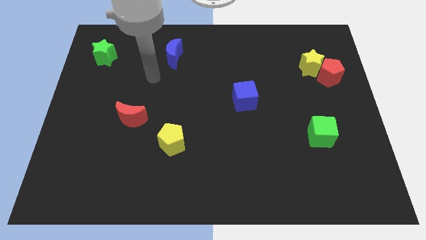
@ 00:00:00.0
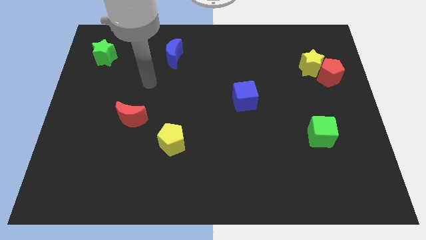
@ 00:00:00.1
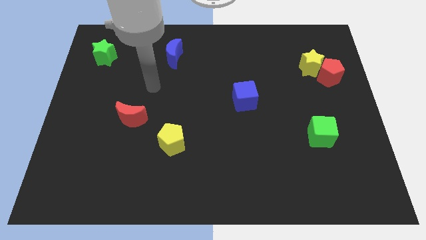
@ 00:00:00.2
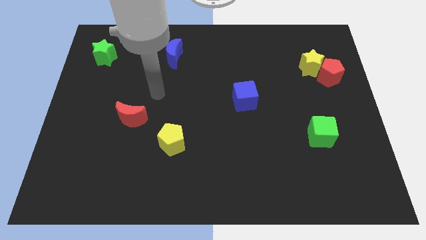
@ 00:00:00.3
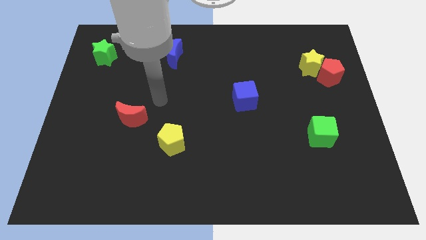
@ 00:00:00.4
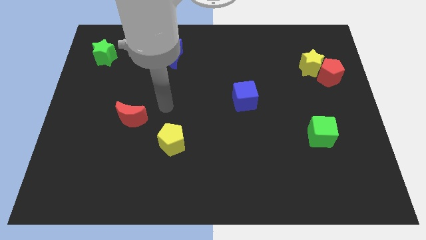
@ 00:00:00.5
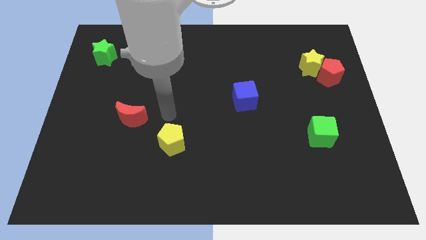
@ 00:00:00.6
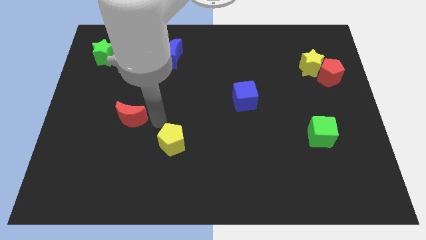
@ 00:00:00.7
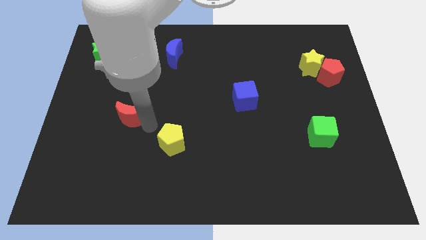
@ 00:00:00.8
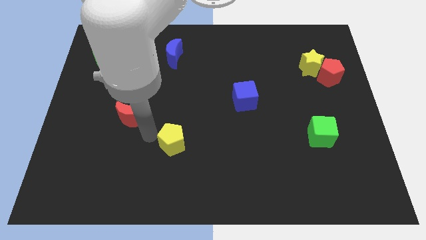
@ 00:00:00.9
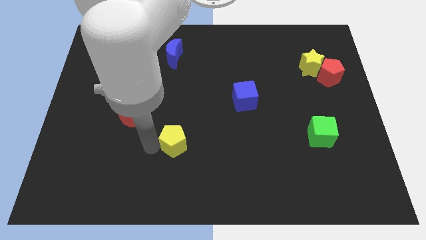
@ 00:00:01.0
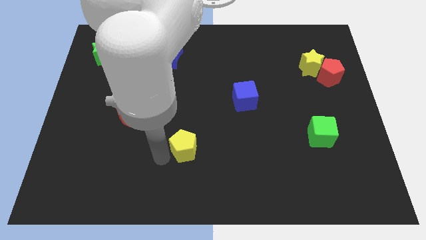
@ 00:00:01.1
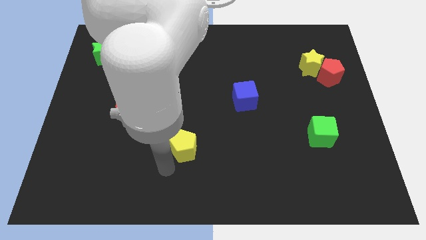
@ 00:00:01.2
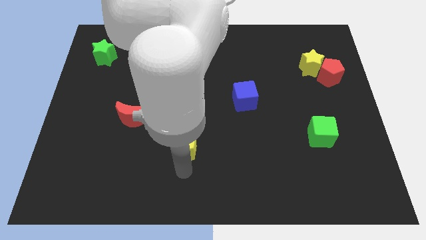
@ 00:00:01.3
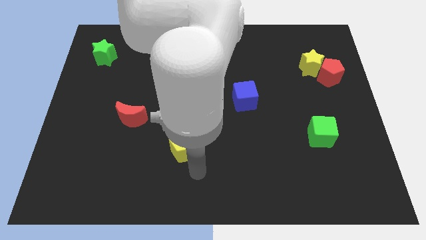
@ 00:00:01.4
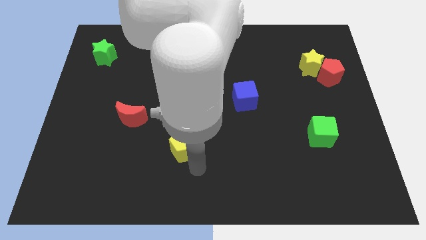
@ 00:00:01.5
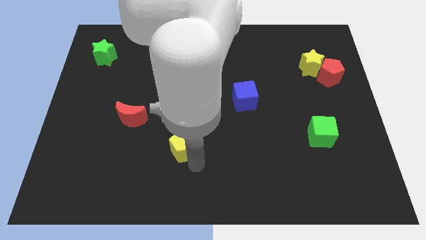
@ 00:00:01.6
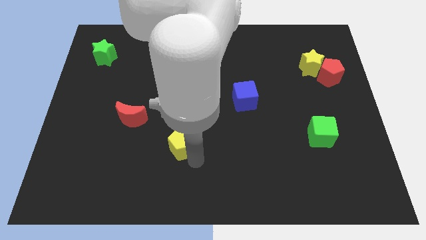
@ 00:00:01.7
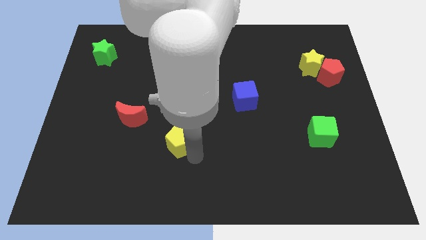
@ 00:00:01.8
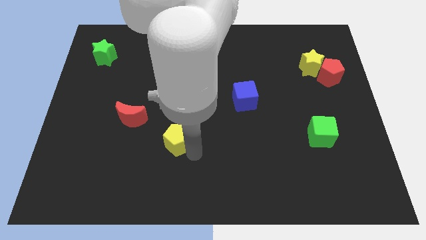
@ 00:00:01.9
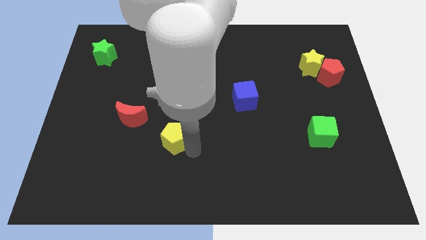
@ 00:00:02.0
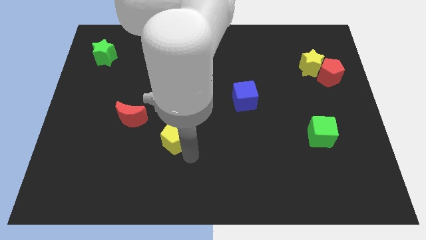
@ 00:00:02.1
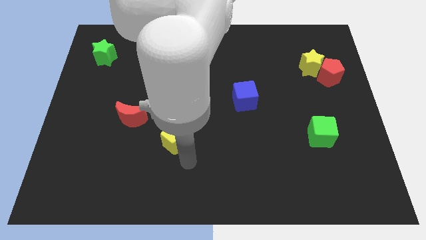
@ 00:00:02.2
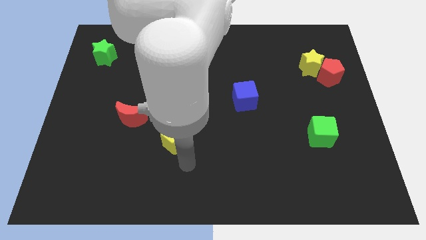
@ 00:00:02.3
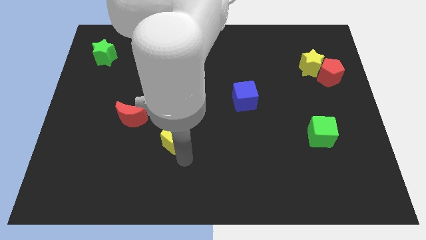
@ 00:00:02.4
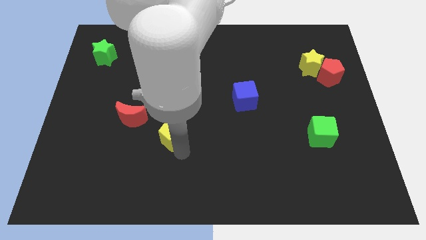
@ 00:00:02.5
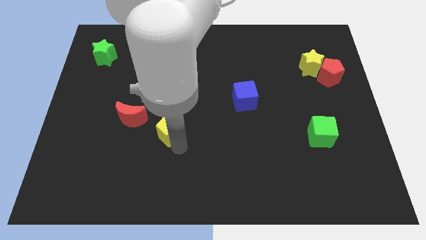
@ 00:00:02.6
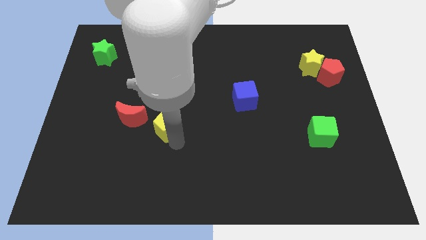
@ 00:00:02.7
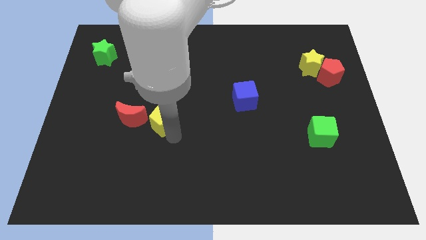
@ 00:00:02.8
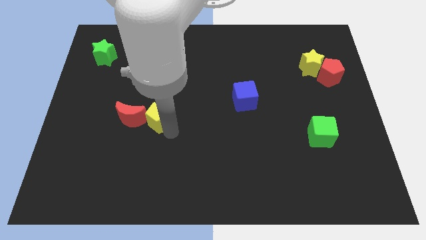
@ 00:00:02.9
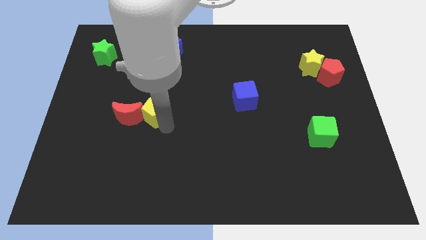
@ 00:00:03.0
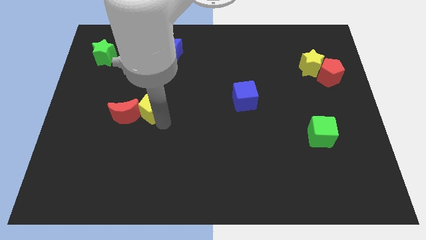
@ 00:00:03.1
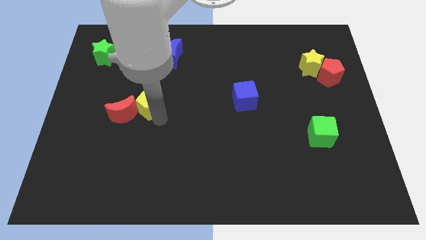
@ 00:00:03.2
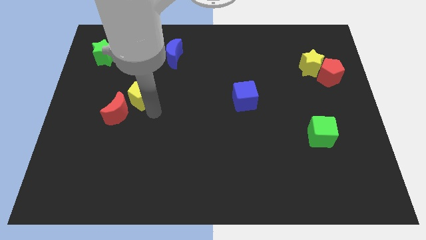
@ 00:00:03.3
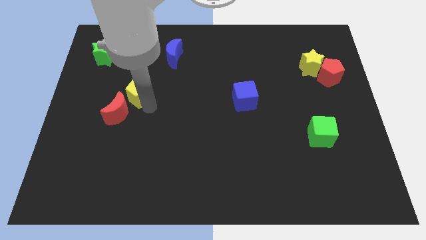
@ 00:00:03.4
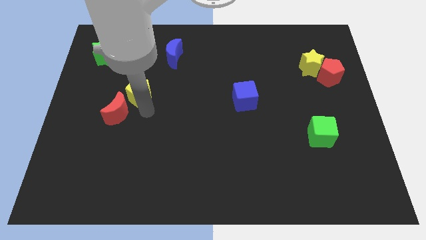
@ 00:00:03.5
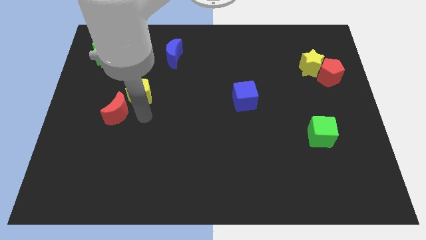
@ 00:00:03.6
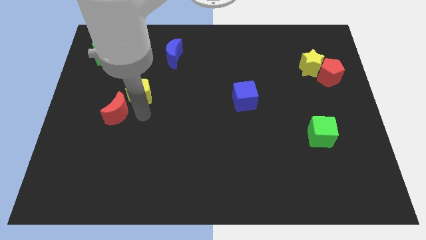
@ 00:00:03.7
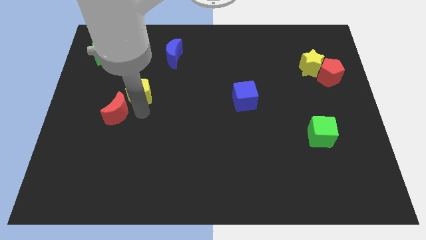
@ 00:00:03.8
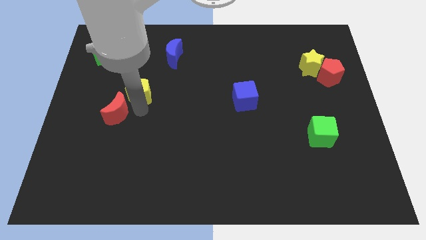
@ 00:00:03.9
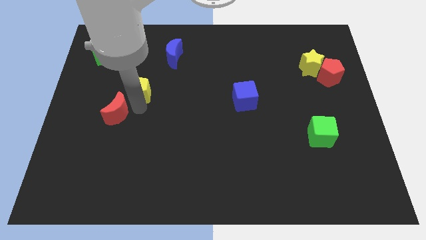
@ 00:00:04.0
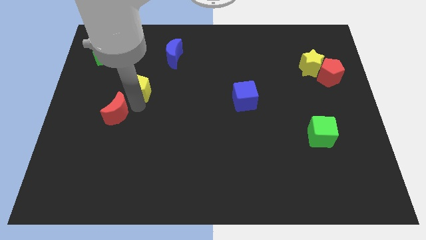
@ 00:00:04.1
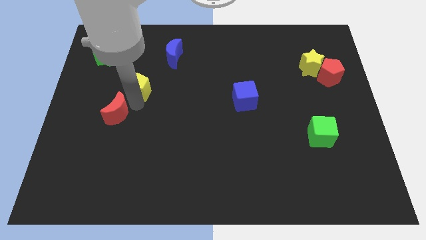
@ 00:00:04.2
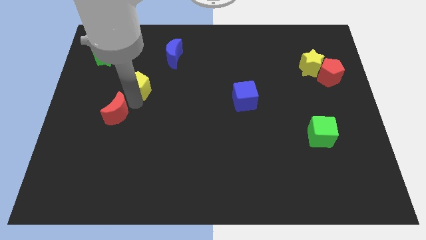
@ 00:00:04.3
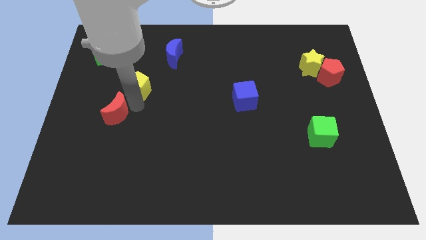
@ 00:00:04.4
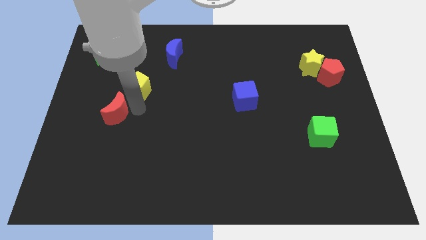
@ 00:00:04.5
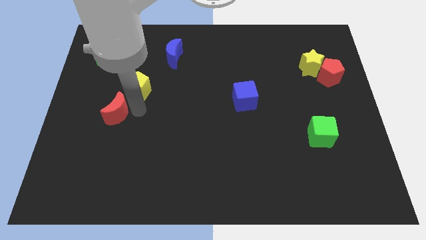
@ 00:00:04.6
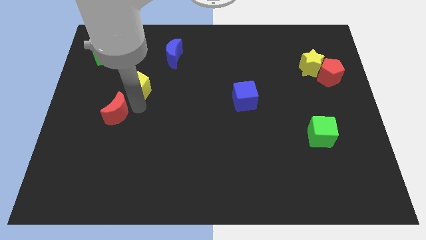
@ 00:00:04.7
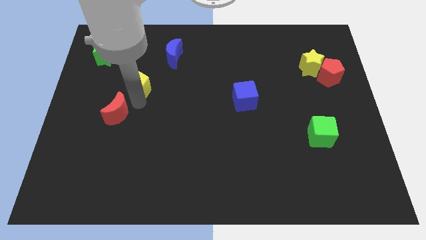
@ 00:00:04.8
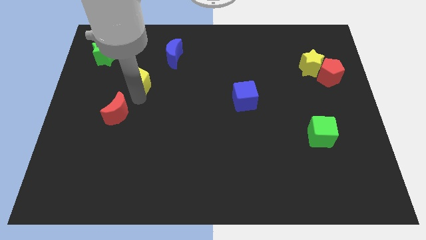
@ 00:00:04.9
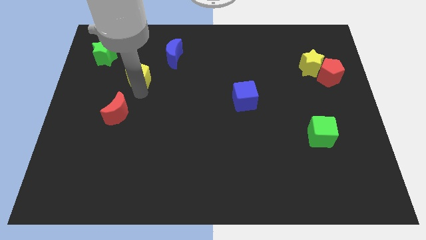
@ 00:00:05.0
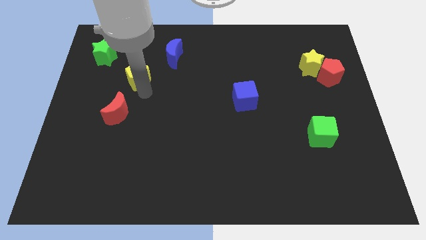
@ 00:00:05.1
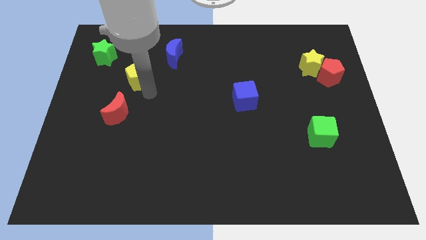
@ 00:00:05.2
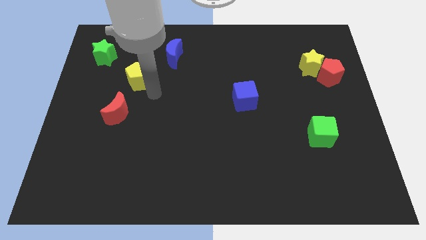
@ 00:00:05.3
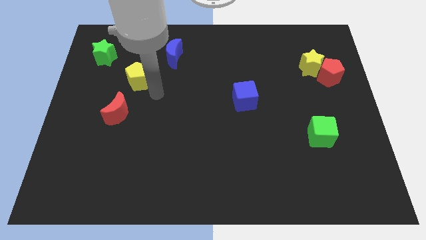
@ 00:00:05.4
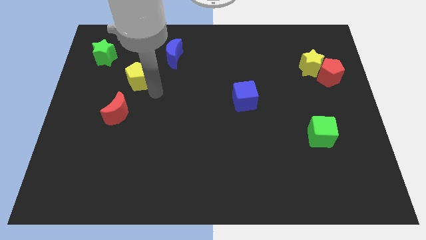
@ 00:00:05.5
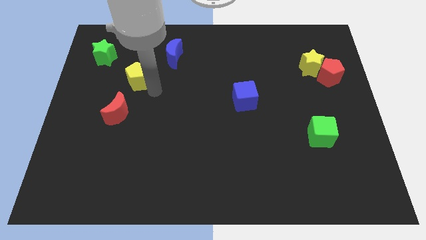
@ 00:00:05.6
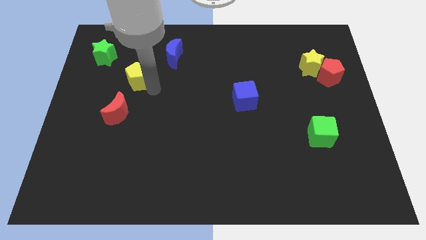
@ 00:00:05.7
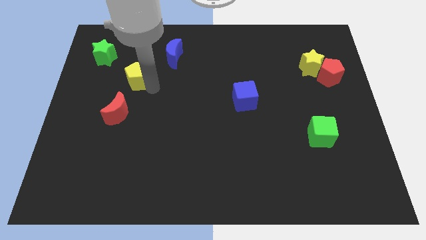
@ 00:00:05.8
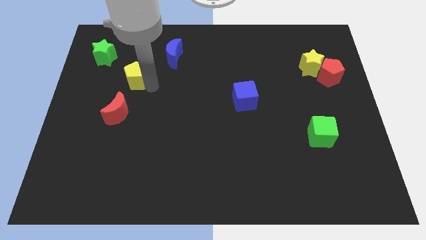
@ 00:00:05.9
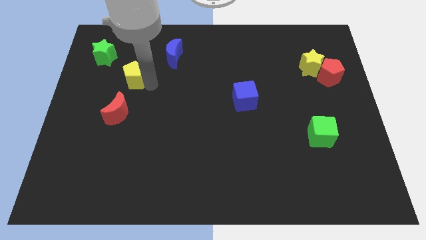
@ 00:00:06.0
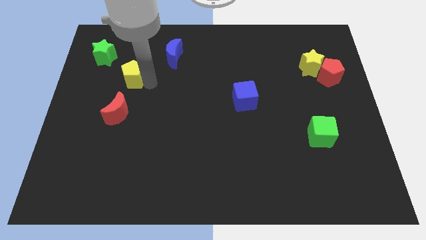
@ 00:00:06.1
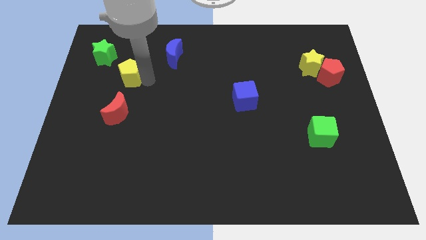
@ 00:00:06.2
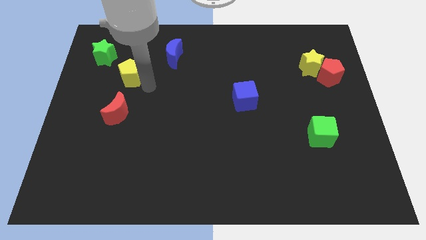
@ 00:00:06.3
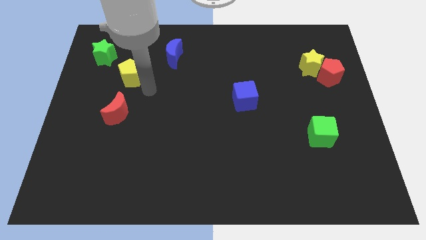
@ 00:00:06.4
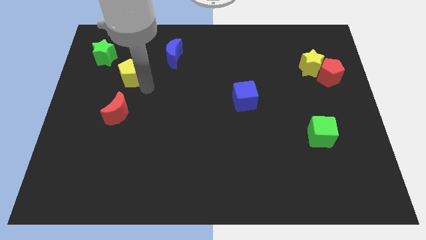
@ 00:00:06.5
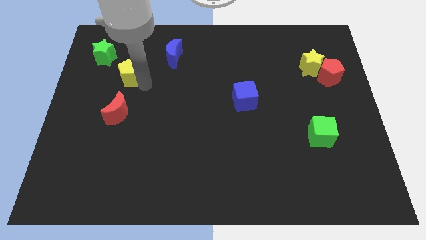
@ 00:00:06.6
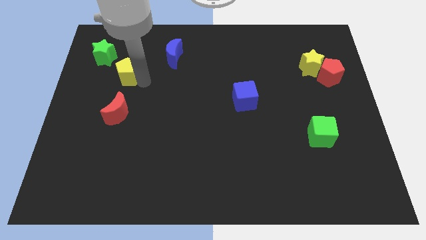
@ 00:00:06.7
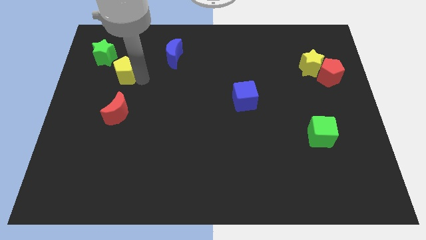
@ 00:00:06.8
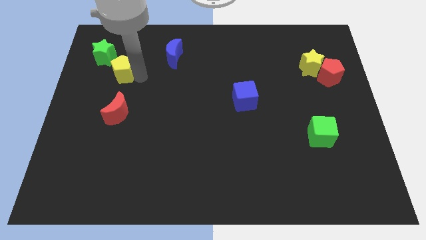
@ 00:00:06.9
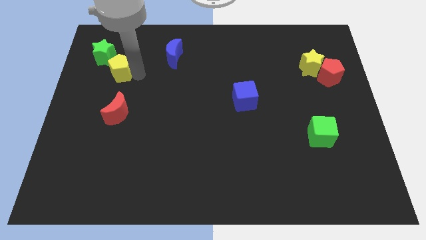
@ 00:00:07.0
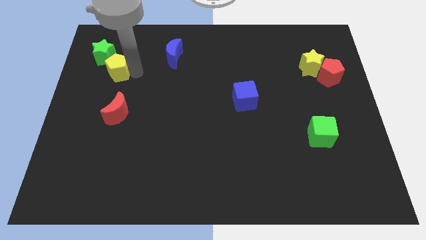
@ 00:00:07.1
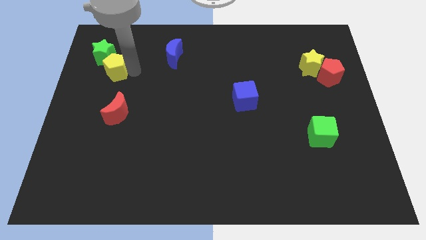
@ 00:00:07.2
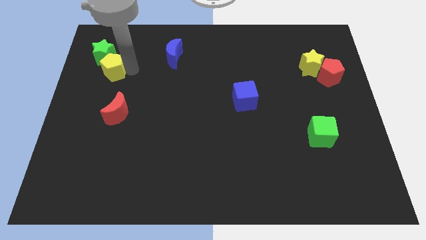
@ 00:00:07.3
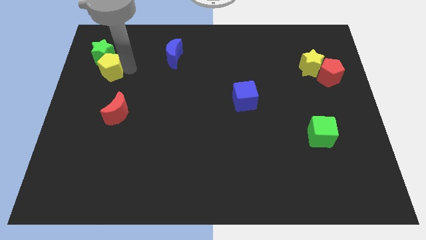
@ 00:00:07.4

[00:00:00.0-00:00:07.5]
slide the yellow pentagon next to the green star
